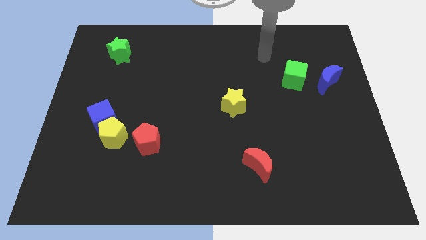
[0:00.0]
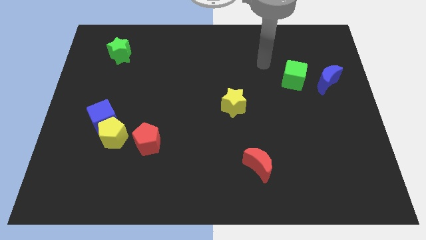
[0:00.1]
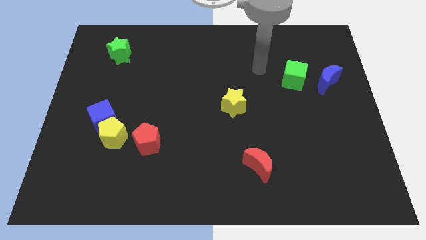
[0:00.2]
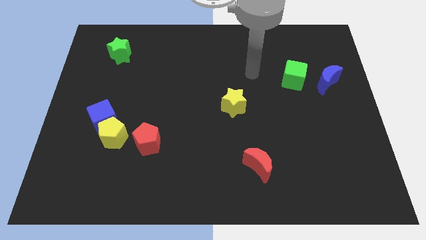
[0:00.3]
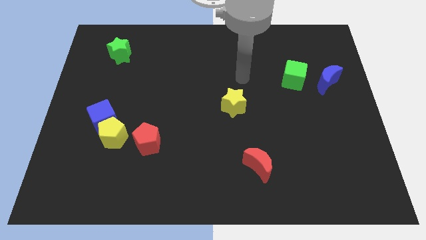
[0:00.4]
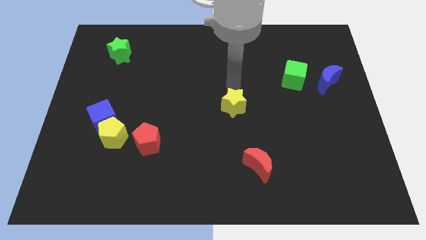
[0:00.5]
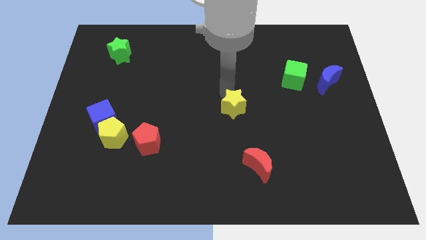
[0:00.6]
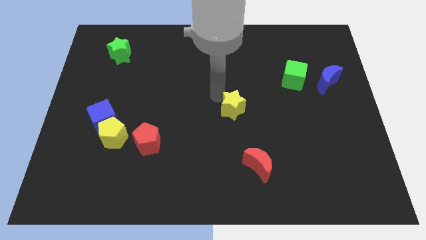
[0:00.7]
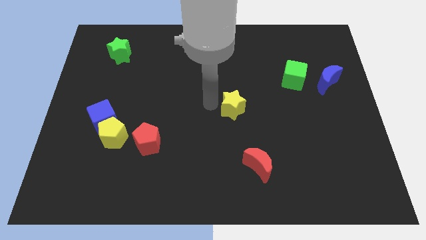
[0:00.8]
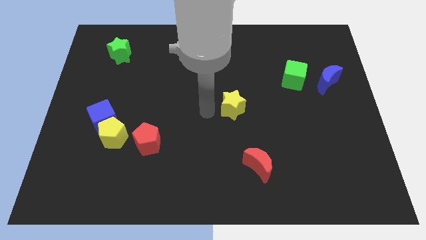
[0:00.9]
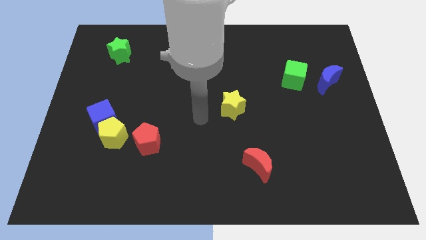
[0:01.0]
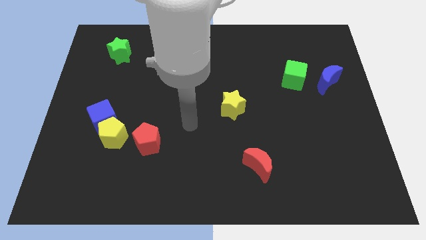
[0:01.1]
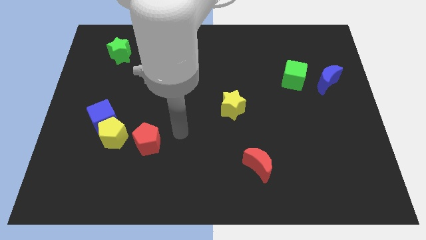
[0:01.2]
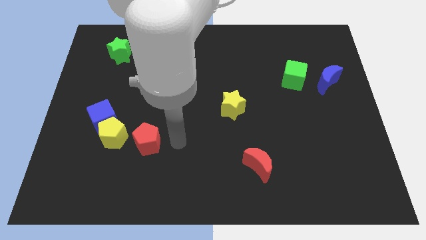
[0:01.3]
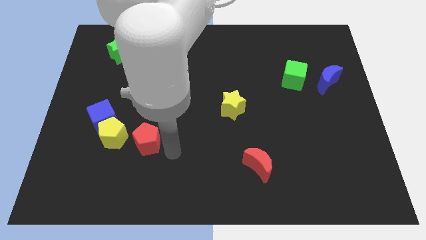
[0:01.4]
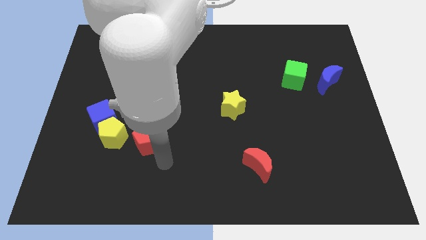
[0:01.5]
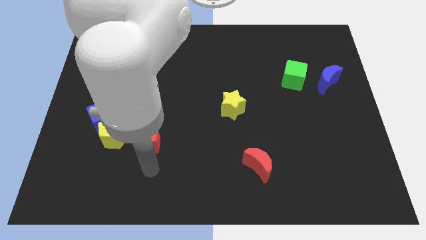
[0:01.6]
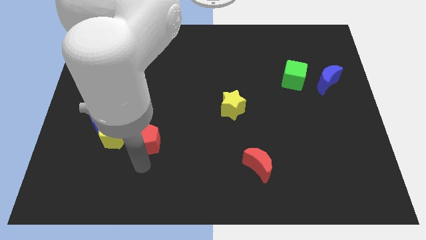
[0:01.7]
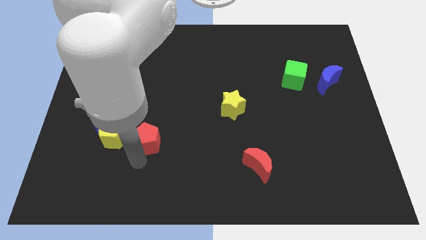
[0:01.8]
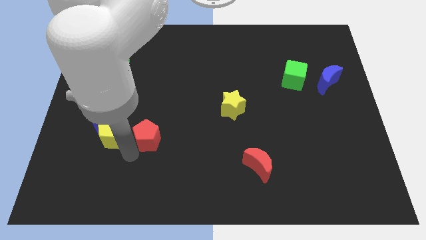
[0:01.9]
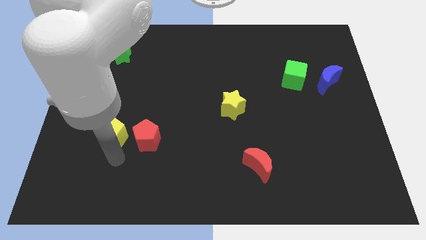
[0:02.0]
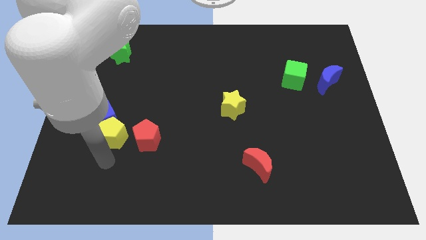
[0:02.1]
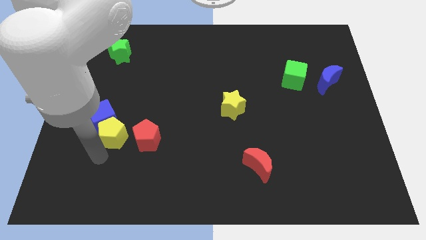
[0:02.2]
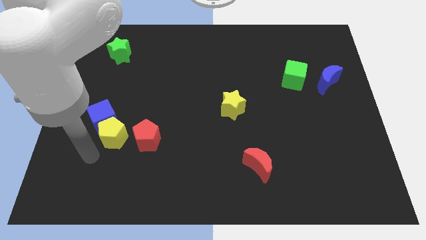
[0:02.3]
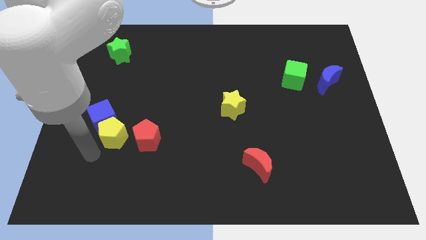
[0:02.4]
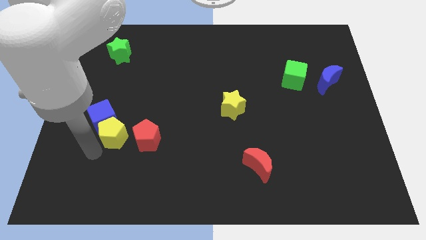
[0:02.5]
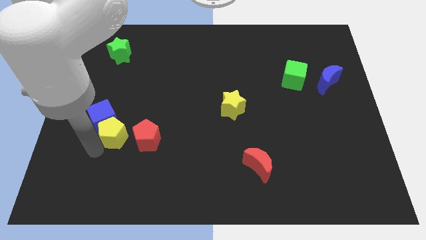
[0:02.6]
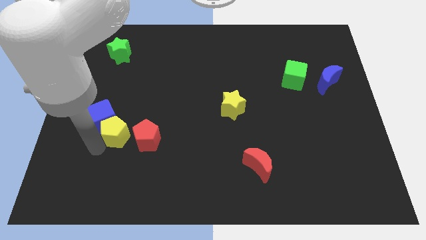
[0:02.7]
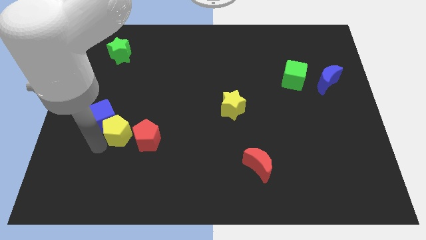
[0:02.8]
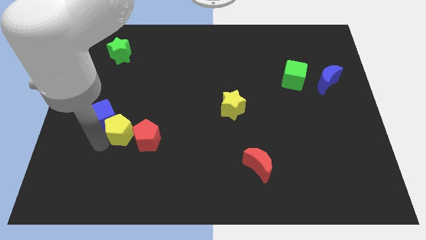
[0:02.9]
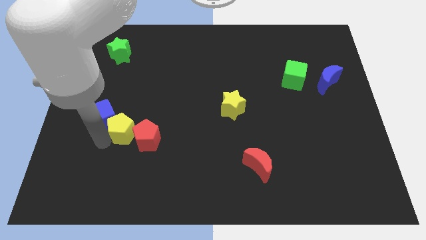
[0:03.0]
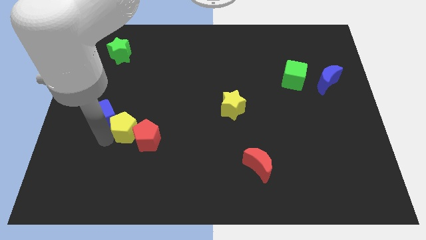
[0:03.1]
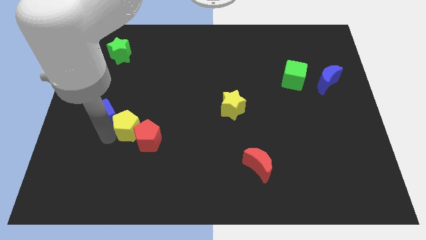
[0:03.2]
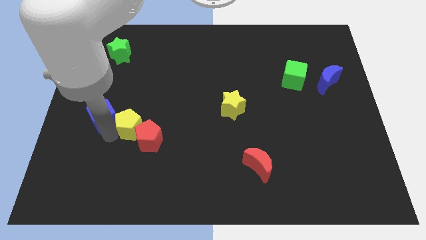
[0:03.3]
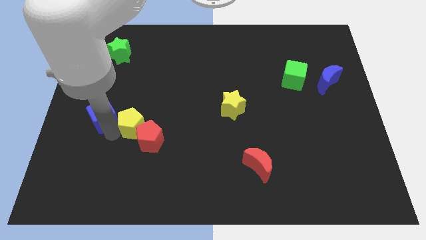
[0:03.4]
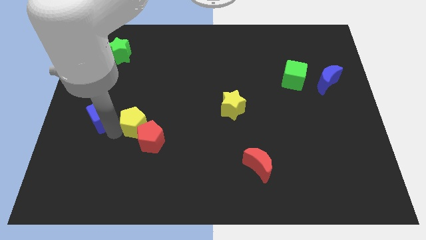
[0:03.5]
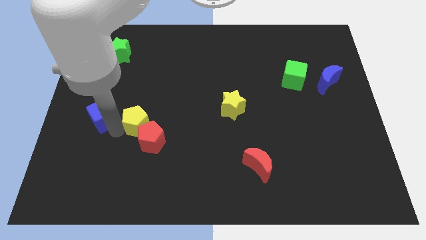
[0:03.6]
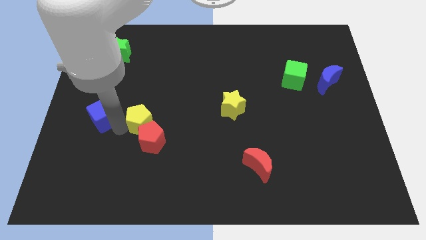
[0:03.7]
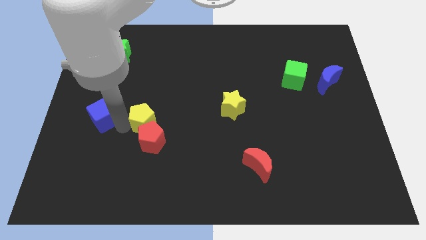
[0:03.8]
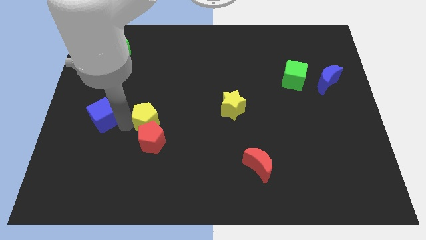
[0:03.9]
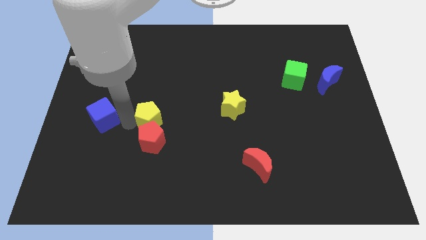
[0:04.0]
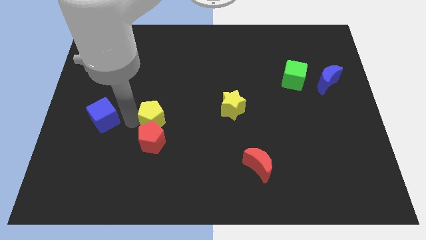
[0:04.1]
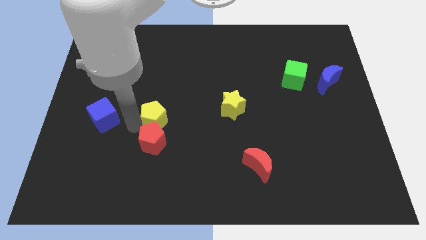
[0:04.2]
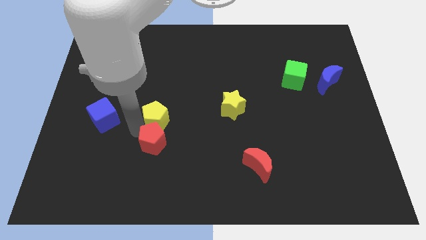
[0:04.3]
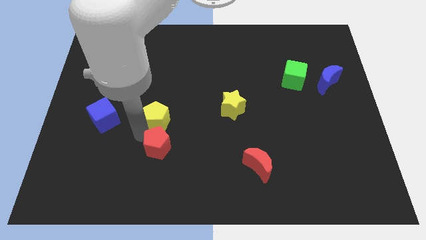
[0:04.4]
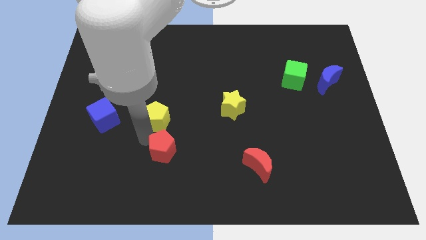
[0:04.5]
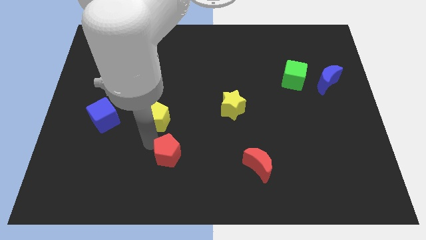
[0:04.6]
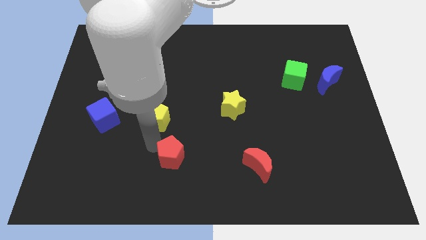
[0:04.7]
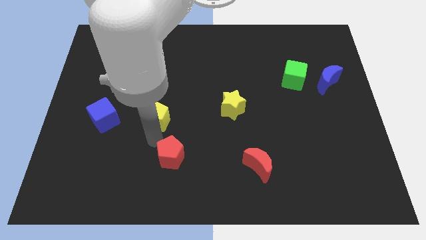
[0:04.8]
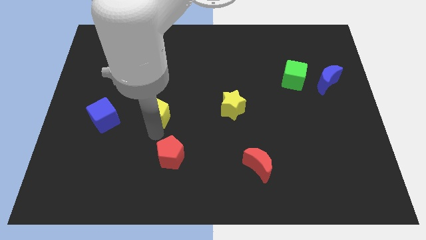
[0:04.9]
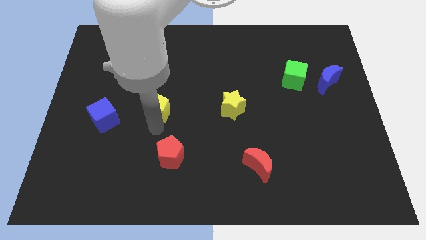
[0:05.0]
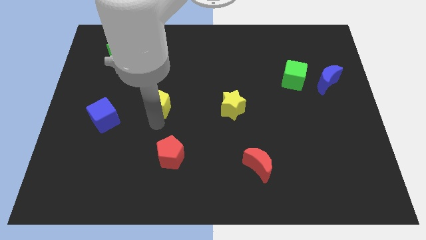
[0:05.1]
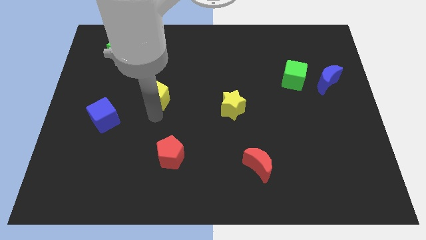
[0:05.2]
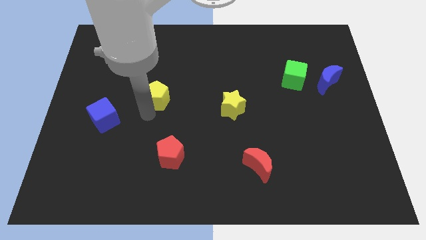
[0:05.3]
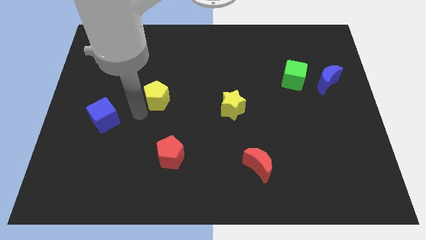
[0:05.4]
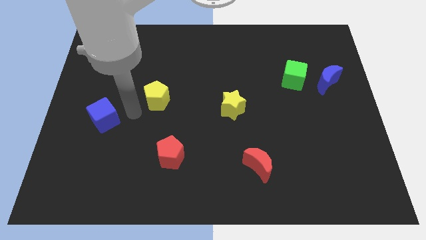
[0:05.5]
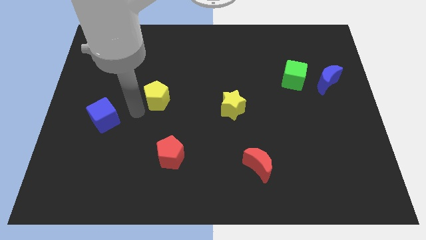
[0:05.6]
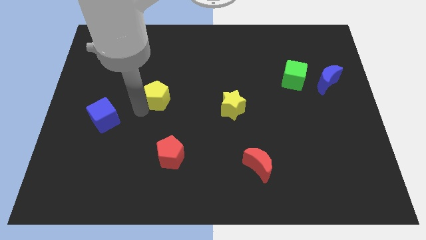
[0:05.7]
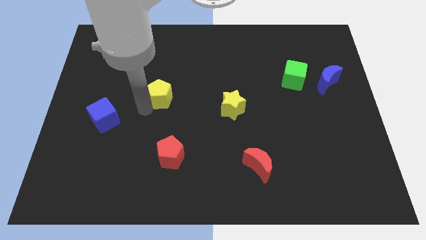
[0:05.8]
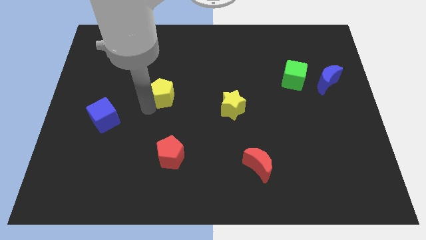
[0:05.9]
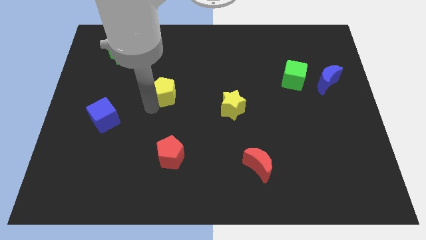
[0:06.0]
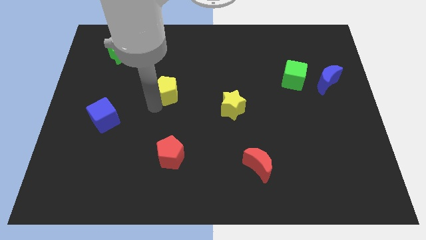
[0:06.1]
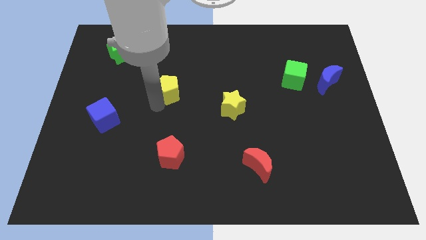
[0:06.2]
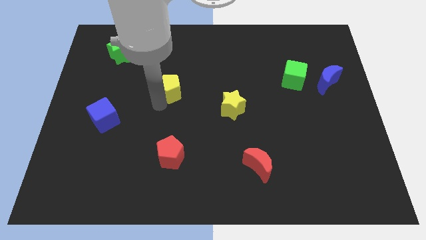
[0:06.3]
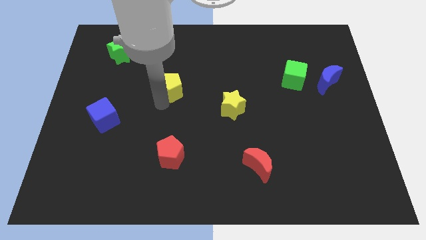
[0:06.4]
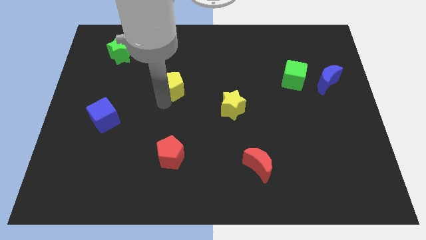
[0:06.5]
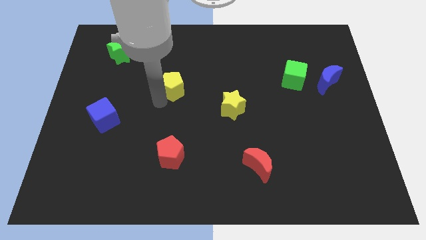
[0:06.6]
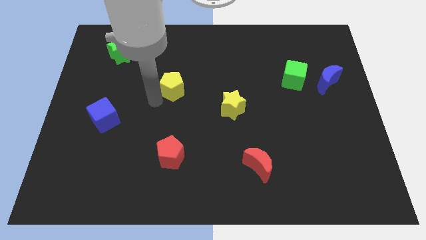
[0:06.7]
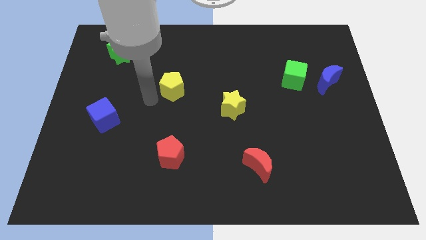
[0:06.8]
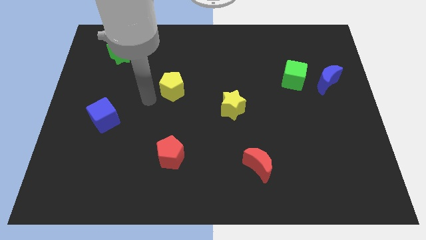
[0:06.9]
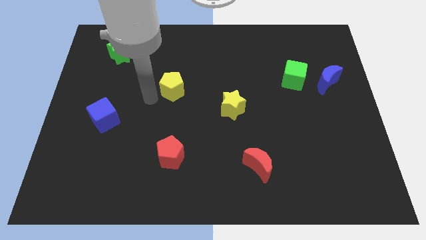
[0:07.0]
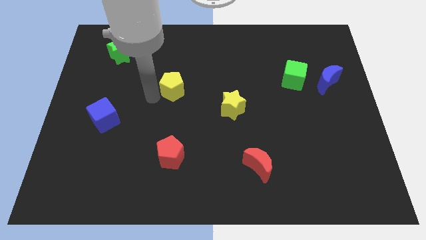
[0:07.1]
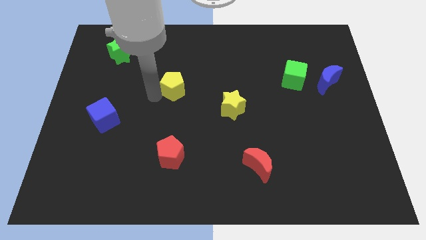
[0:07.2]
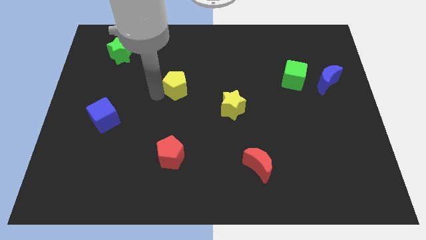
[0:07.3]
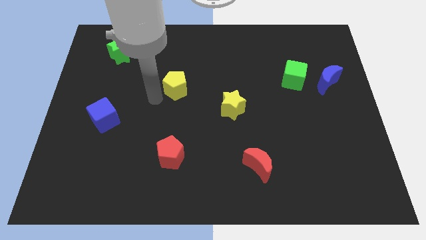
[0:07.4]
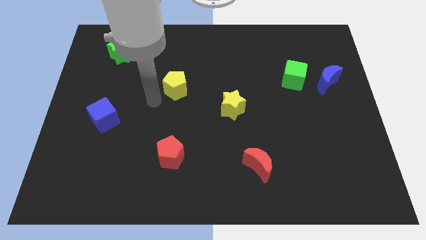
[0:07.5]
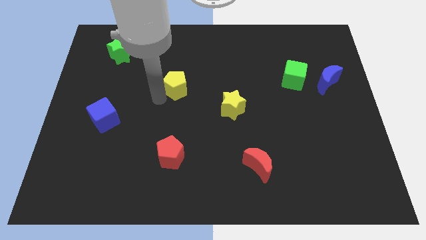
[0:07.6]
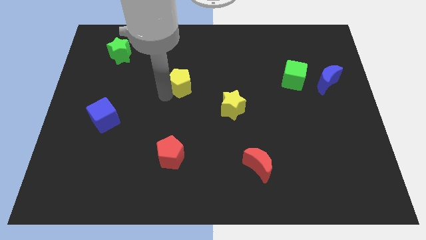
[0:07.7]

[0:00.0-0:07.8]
push the yellow pentagon up and to the right
